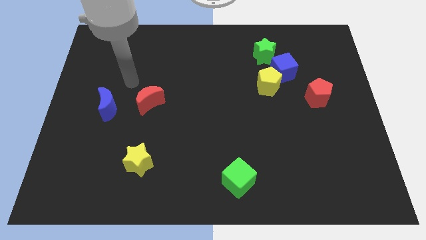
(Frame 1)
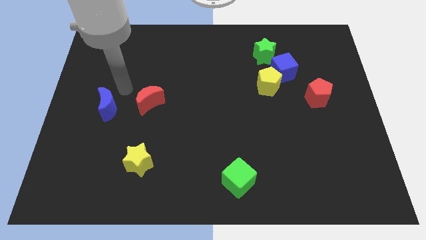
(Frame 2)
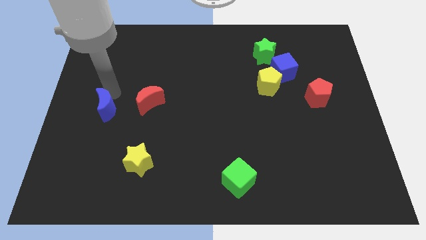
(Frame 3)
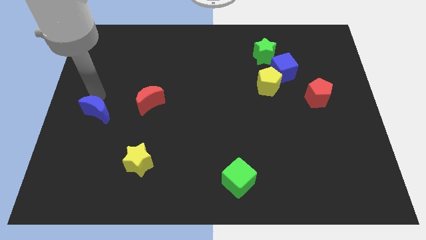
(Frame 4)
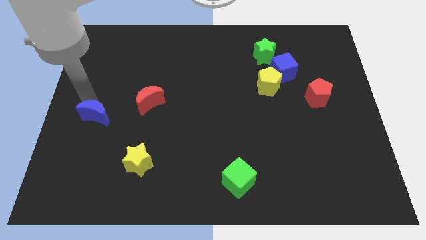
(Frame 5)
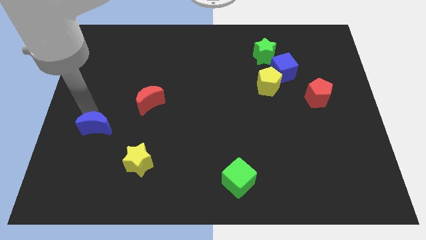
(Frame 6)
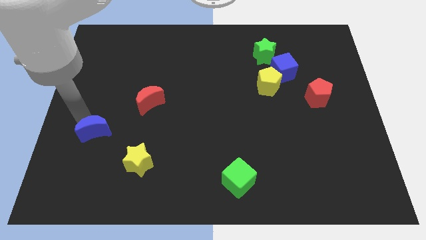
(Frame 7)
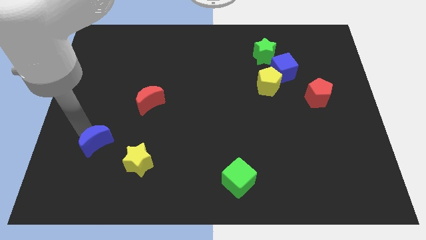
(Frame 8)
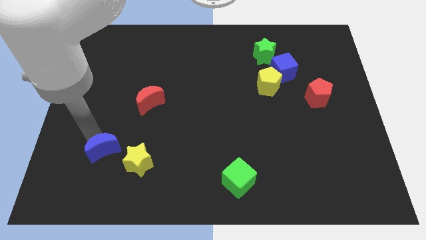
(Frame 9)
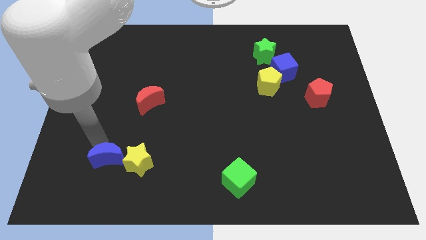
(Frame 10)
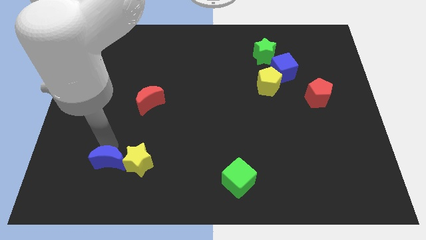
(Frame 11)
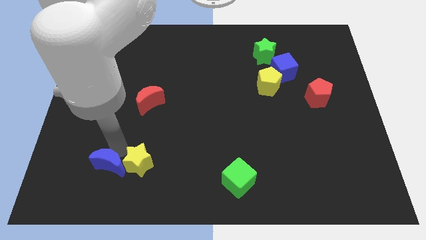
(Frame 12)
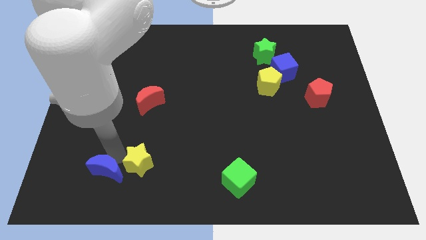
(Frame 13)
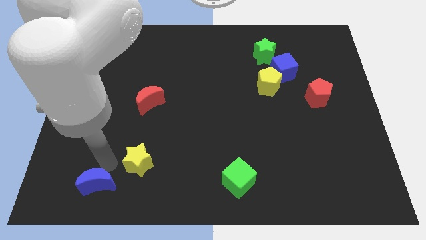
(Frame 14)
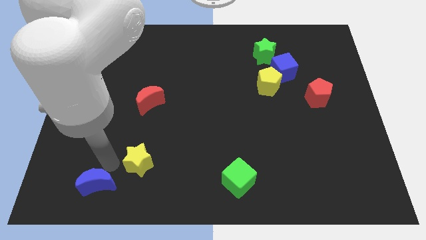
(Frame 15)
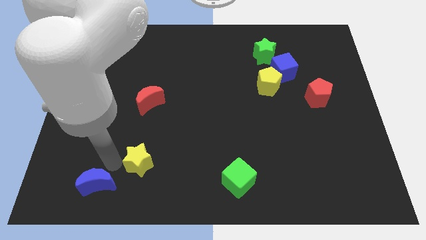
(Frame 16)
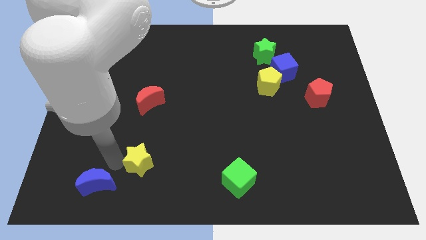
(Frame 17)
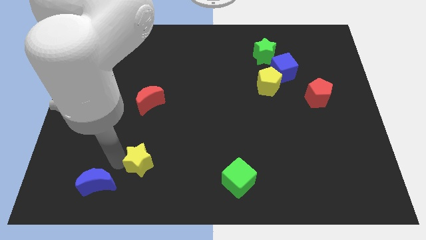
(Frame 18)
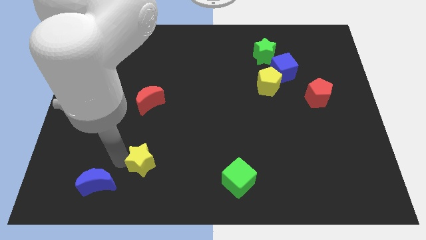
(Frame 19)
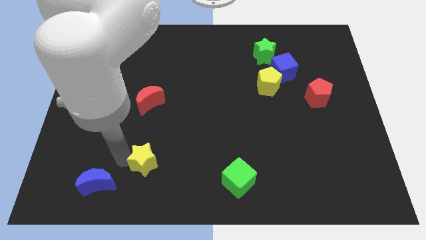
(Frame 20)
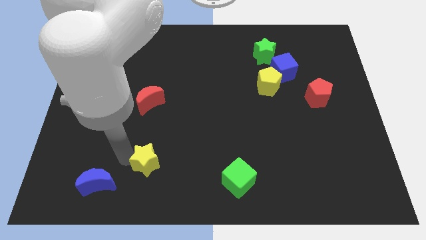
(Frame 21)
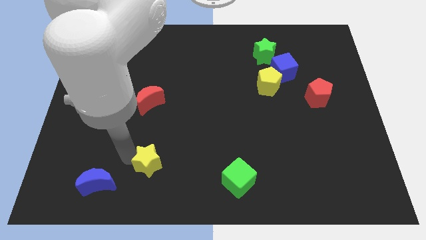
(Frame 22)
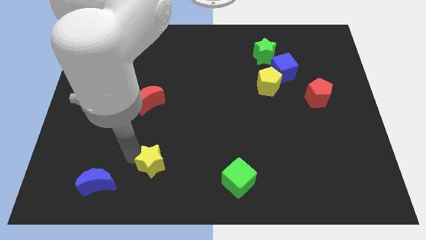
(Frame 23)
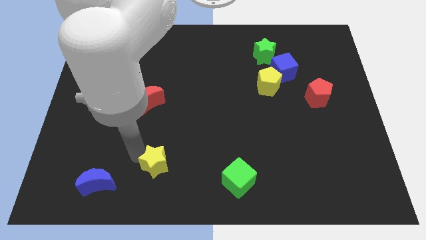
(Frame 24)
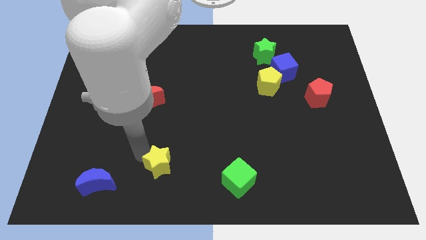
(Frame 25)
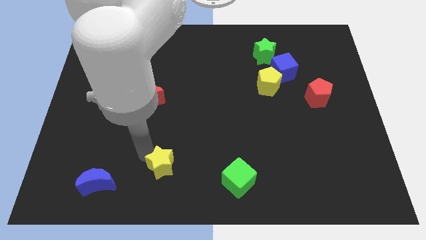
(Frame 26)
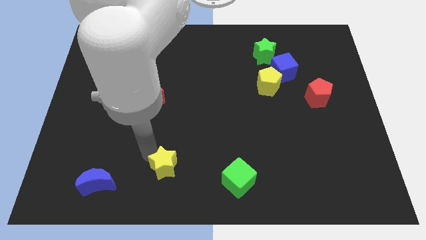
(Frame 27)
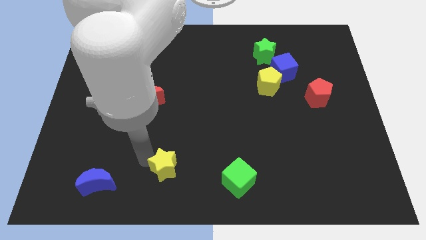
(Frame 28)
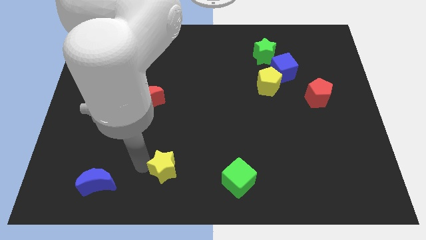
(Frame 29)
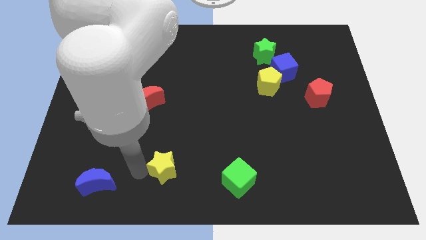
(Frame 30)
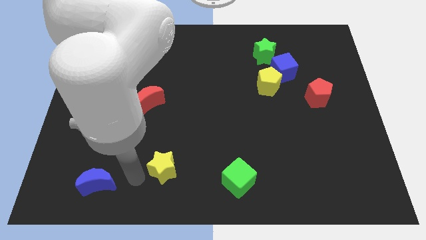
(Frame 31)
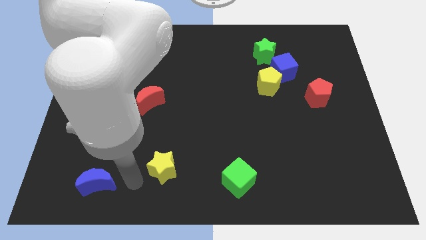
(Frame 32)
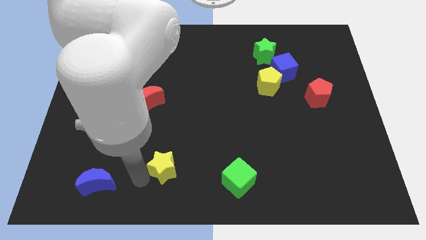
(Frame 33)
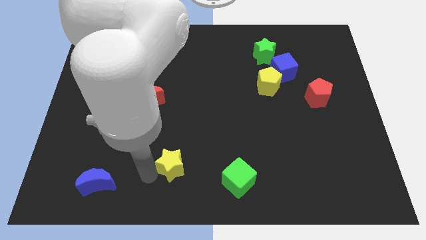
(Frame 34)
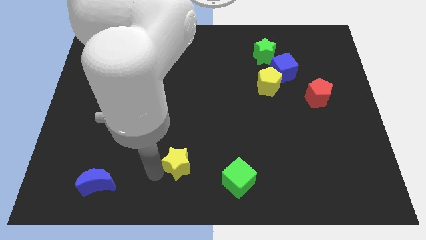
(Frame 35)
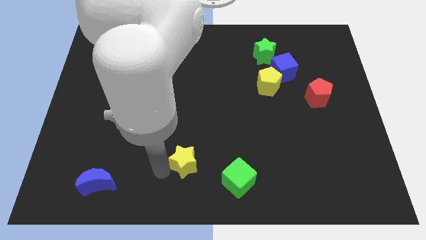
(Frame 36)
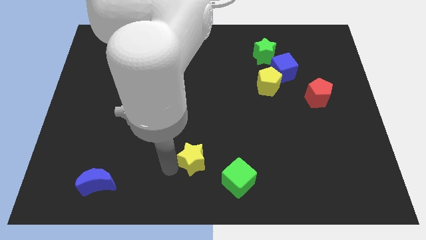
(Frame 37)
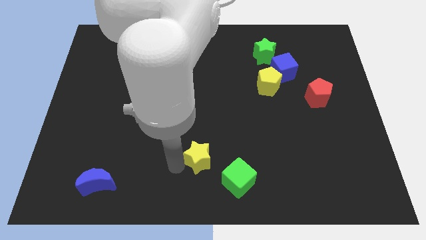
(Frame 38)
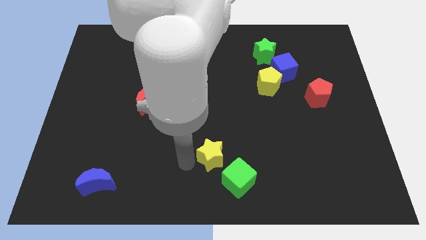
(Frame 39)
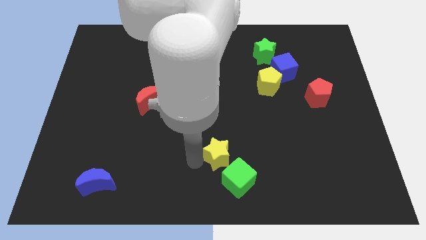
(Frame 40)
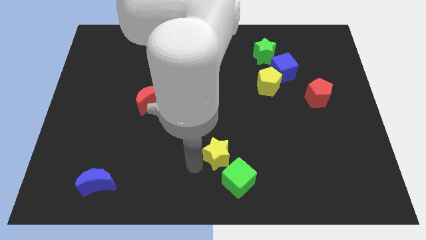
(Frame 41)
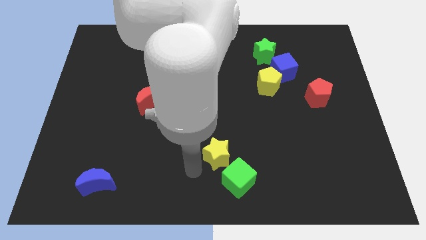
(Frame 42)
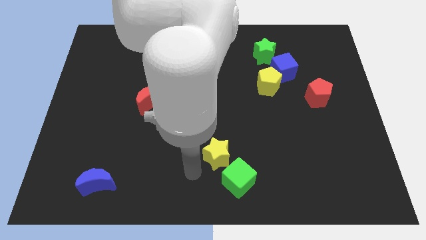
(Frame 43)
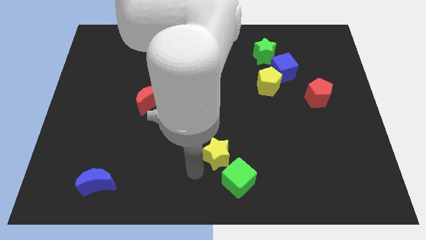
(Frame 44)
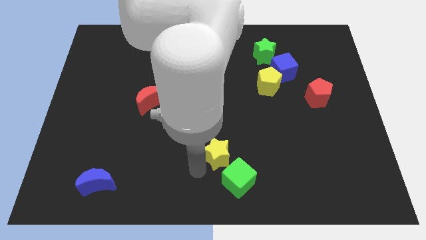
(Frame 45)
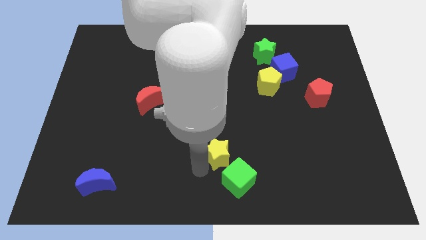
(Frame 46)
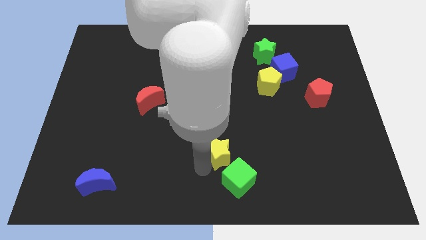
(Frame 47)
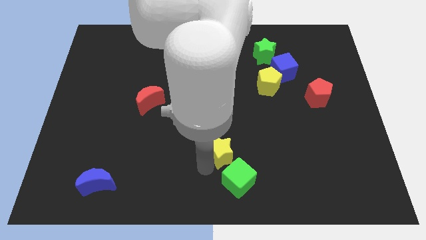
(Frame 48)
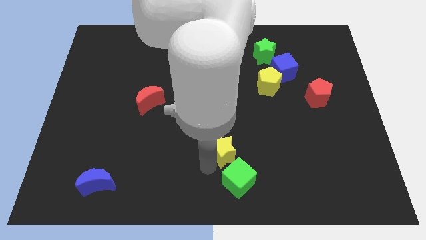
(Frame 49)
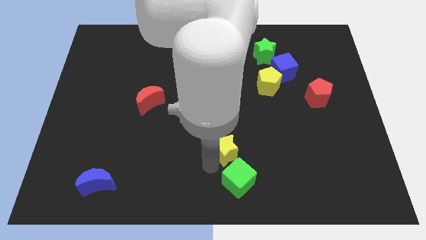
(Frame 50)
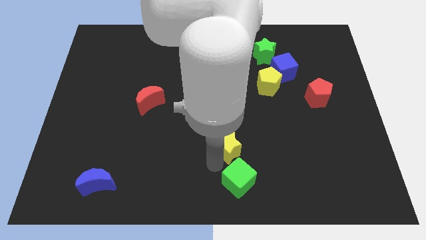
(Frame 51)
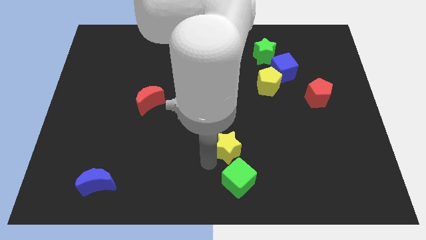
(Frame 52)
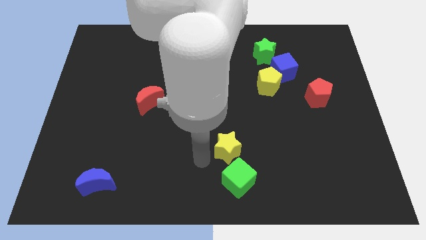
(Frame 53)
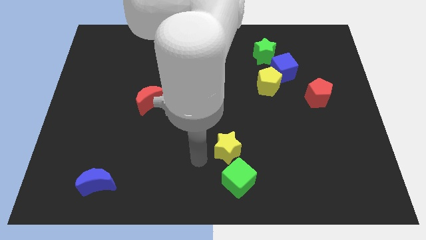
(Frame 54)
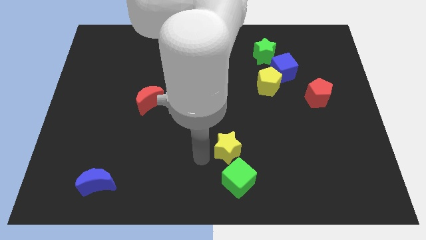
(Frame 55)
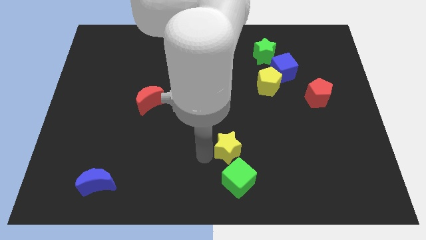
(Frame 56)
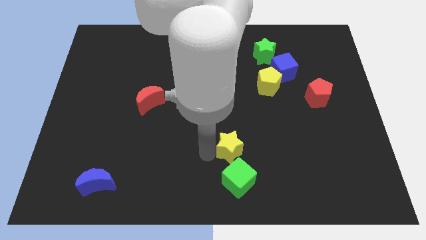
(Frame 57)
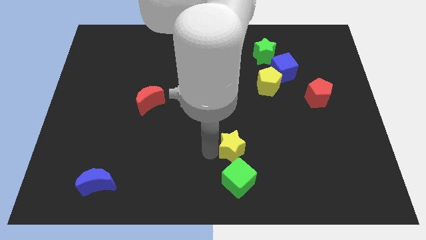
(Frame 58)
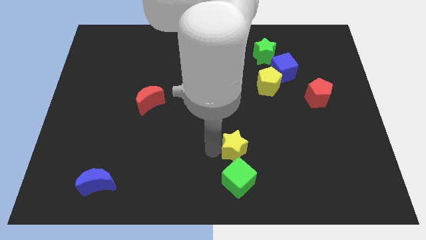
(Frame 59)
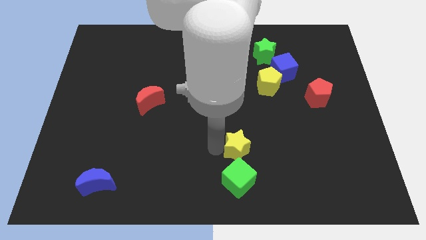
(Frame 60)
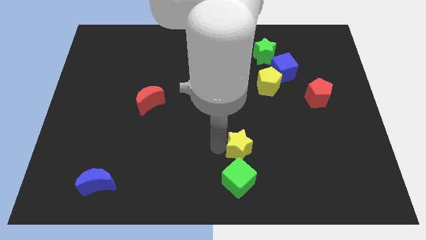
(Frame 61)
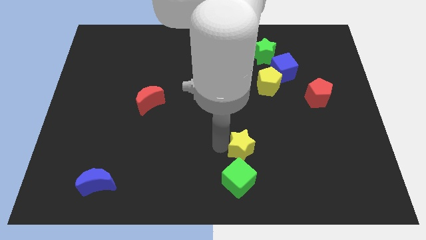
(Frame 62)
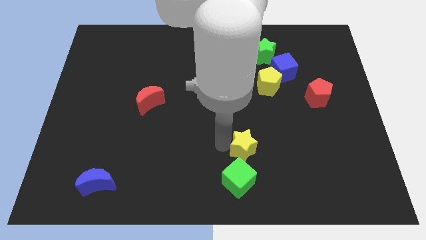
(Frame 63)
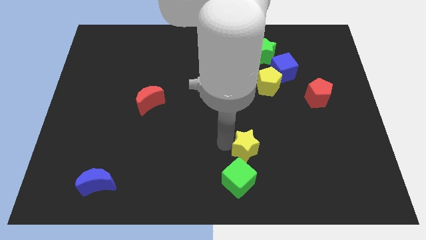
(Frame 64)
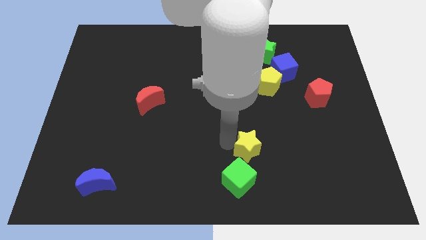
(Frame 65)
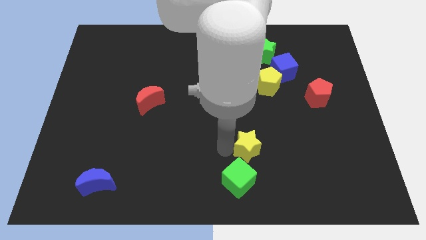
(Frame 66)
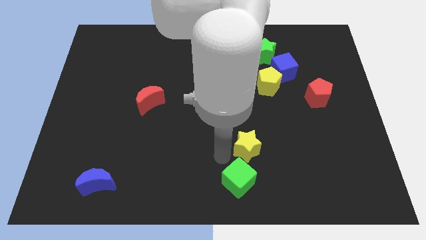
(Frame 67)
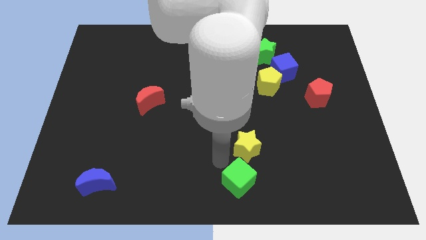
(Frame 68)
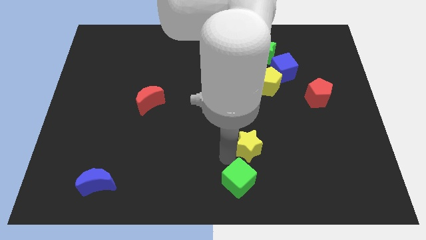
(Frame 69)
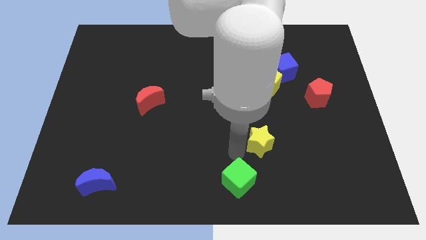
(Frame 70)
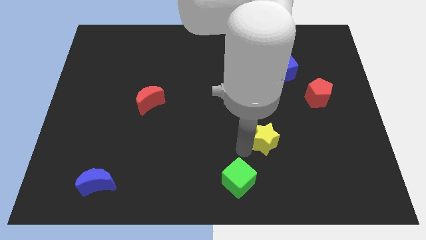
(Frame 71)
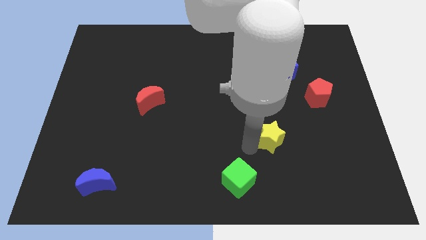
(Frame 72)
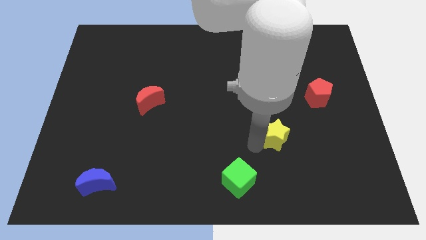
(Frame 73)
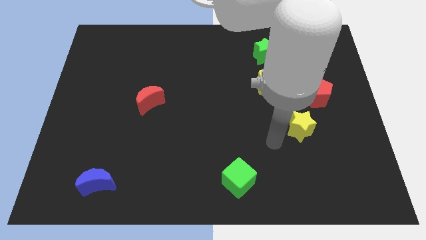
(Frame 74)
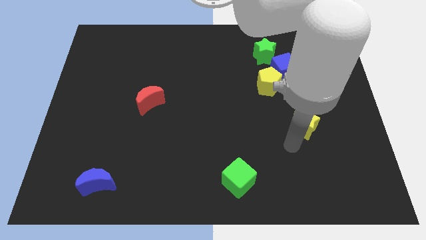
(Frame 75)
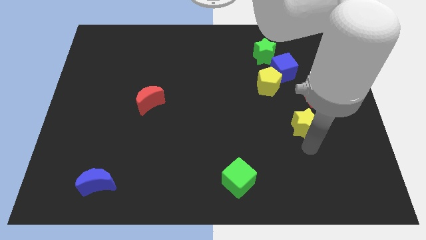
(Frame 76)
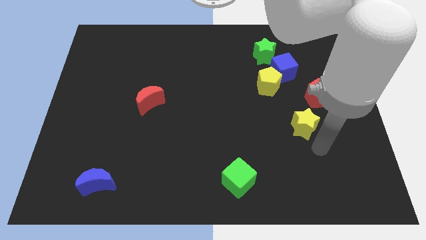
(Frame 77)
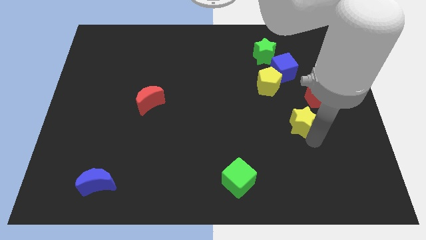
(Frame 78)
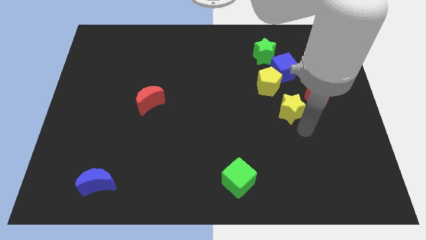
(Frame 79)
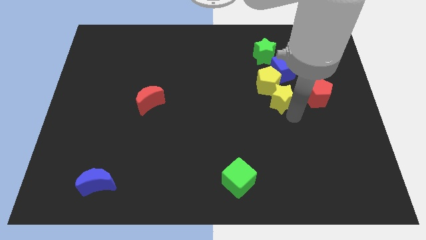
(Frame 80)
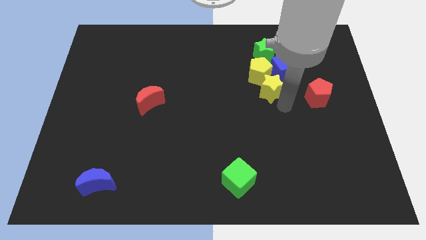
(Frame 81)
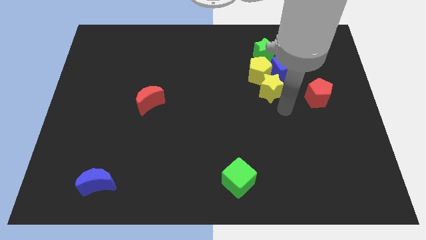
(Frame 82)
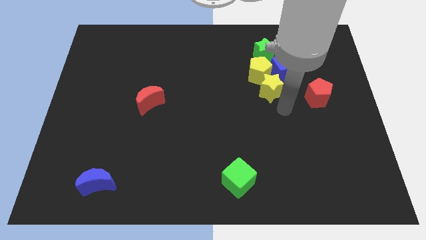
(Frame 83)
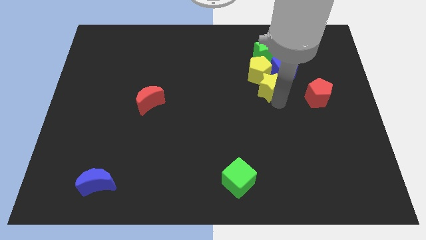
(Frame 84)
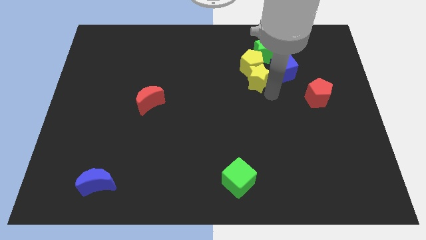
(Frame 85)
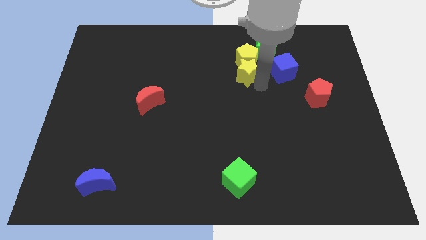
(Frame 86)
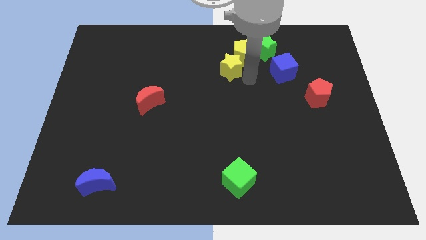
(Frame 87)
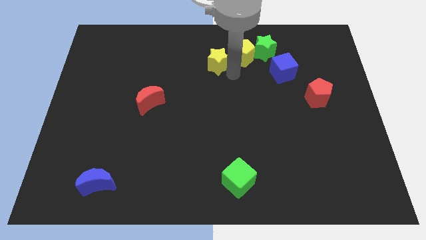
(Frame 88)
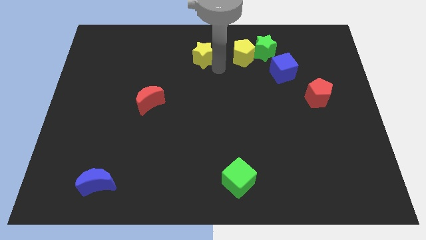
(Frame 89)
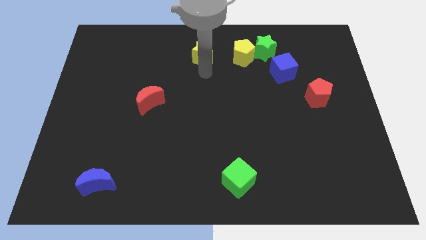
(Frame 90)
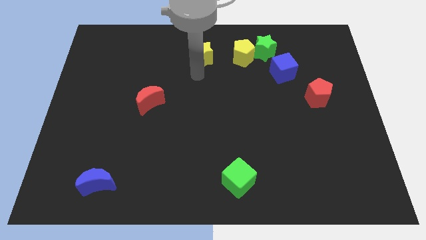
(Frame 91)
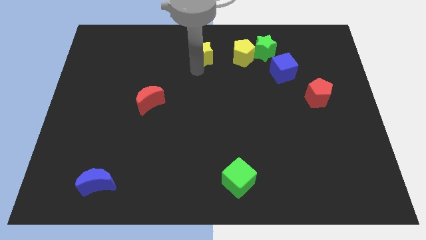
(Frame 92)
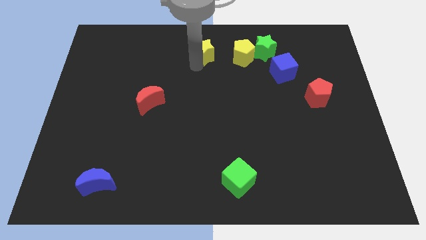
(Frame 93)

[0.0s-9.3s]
put the yellow star to the towards your base
